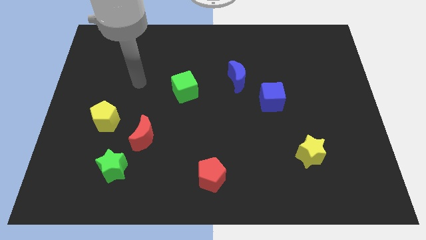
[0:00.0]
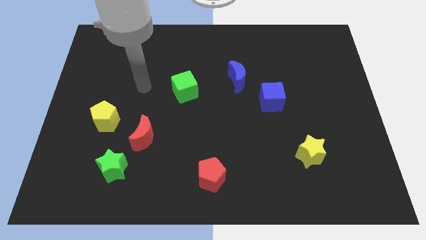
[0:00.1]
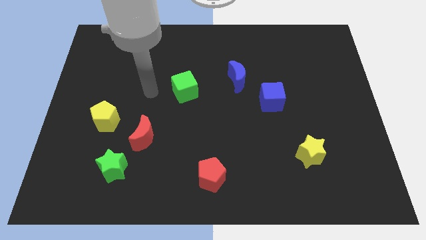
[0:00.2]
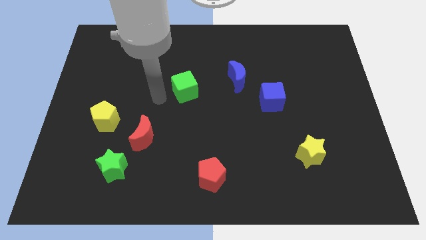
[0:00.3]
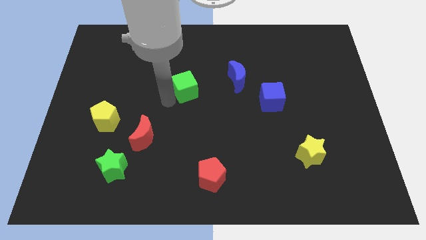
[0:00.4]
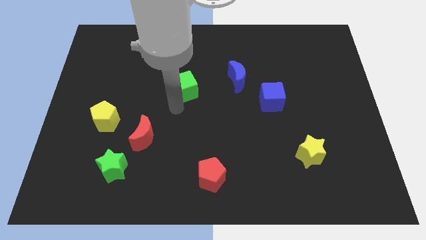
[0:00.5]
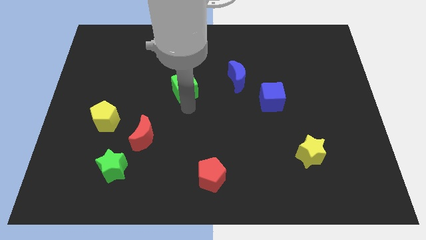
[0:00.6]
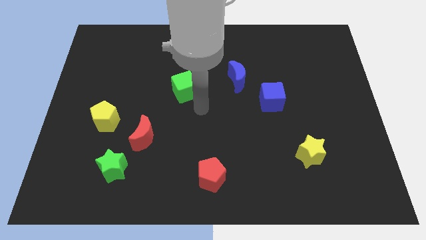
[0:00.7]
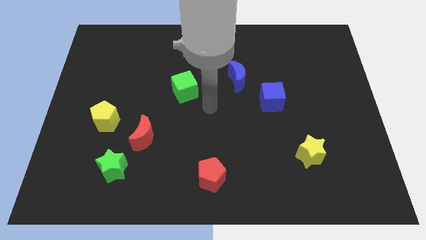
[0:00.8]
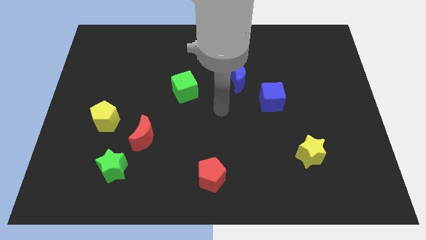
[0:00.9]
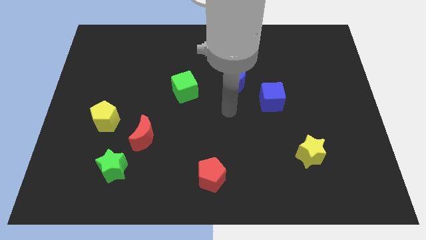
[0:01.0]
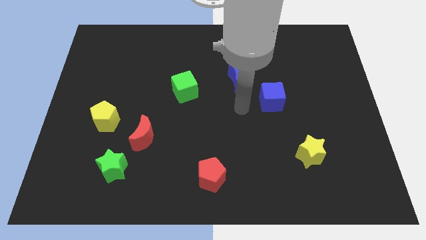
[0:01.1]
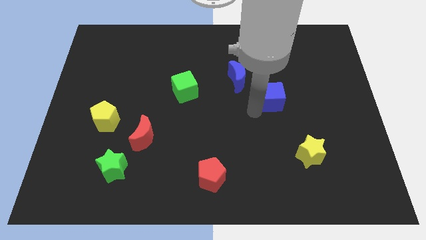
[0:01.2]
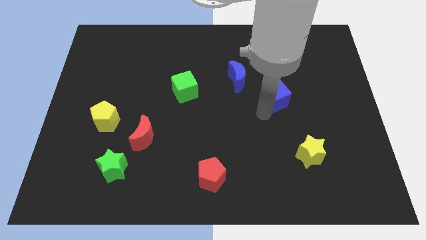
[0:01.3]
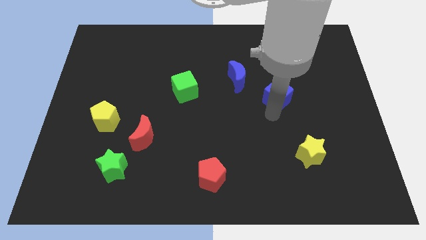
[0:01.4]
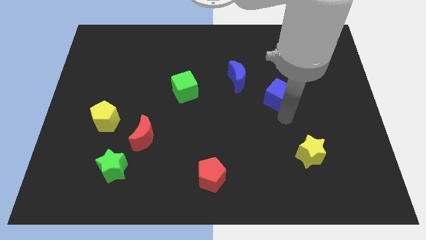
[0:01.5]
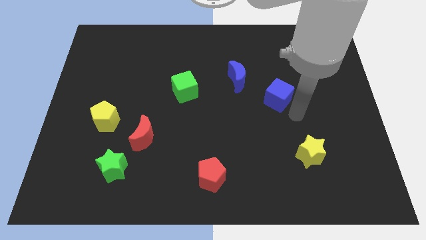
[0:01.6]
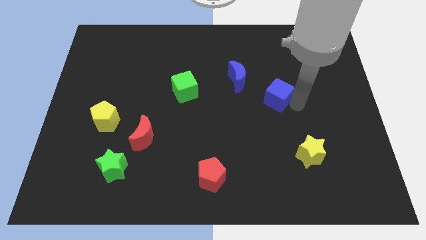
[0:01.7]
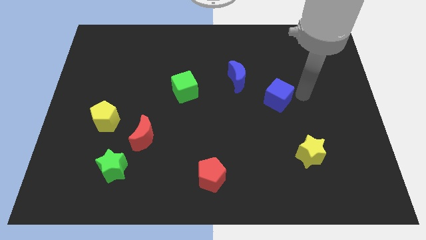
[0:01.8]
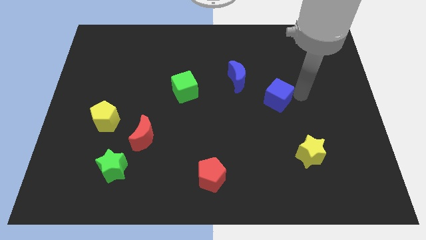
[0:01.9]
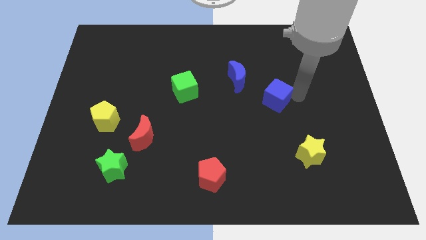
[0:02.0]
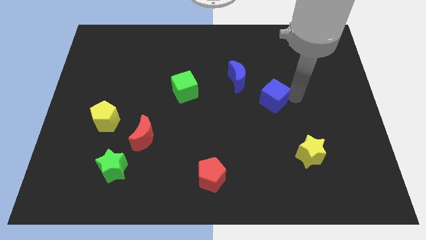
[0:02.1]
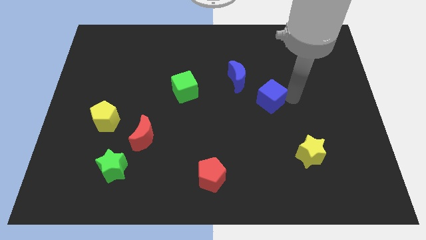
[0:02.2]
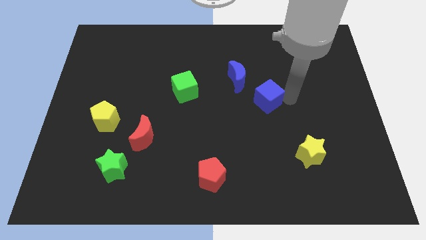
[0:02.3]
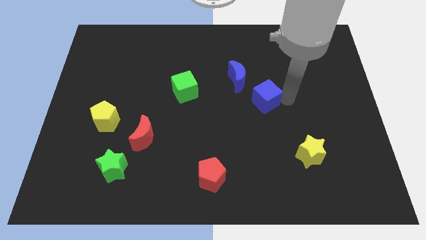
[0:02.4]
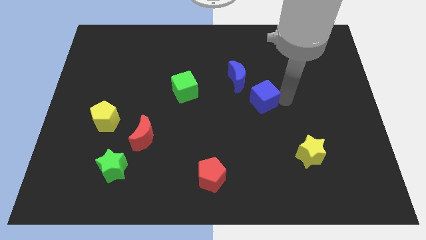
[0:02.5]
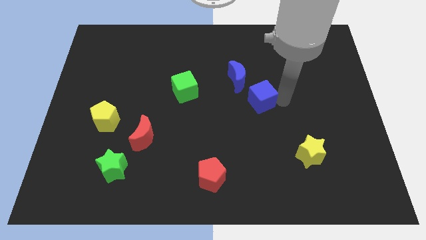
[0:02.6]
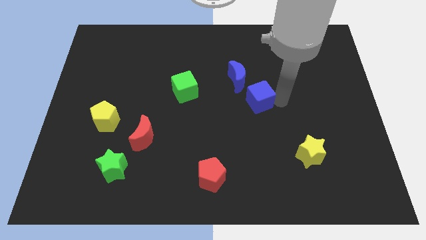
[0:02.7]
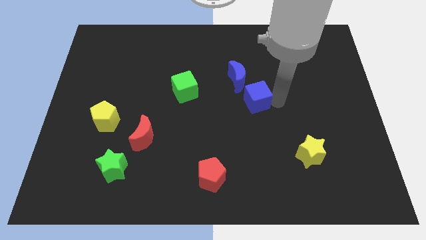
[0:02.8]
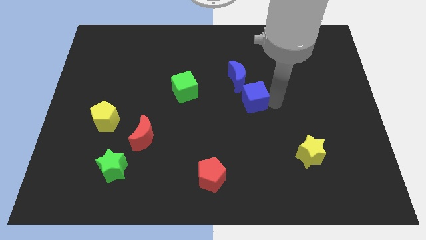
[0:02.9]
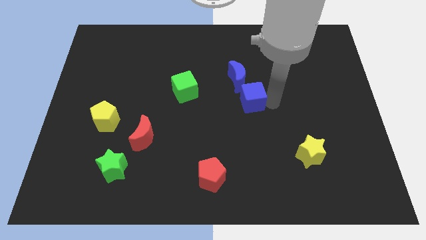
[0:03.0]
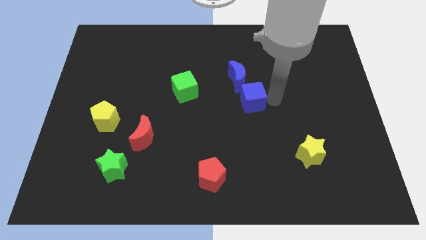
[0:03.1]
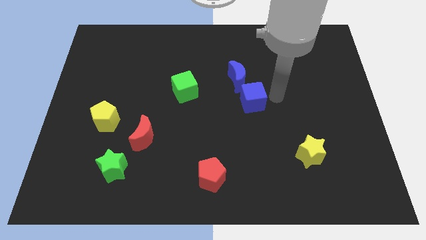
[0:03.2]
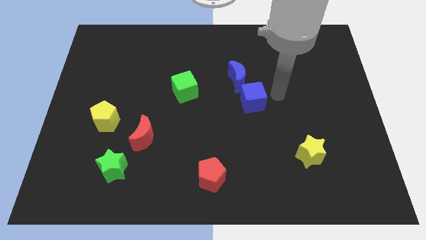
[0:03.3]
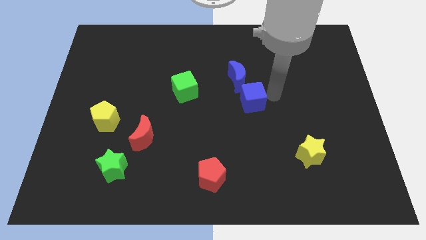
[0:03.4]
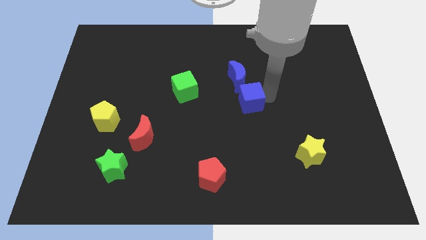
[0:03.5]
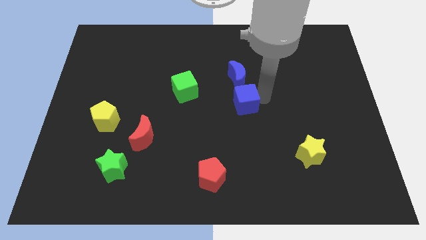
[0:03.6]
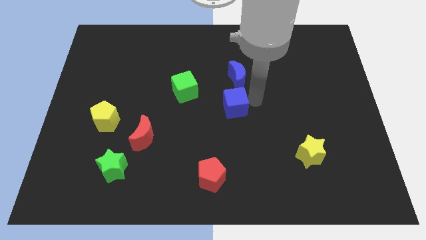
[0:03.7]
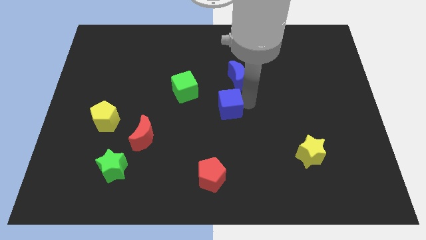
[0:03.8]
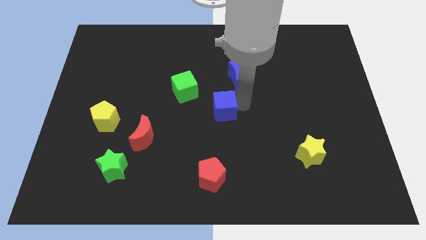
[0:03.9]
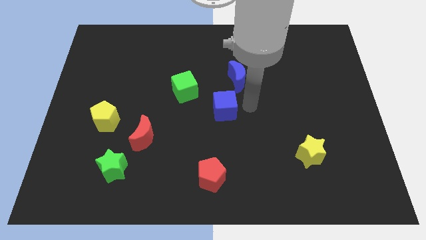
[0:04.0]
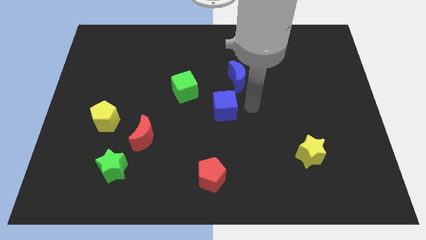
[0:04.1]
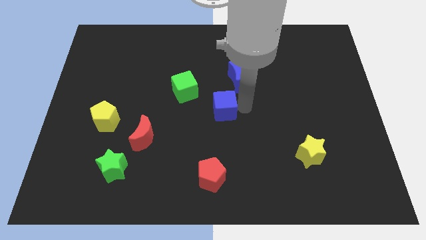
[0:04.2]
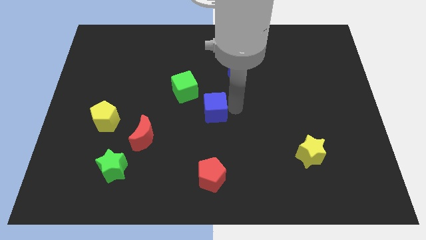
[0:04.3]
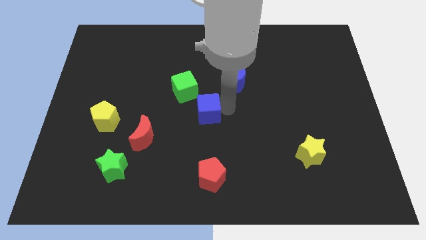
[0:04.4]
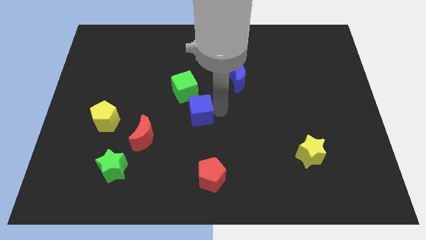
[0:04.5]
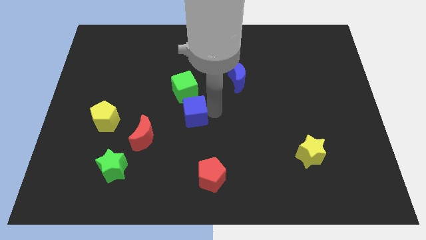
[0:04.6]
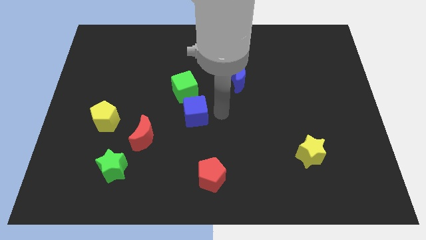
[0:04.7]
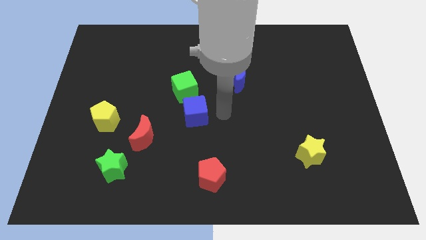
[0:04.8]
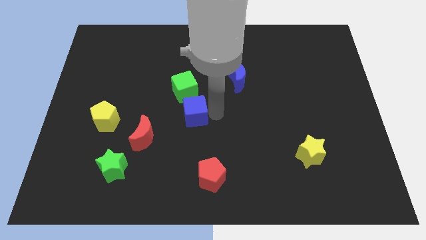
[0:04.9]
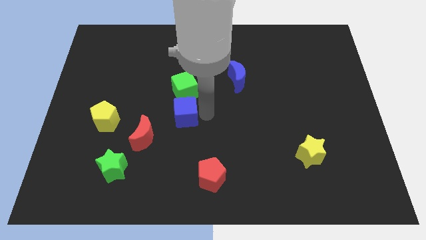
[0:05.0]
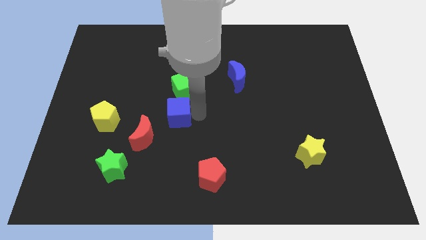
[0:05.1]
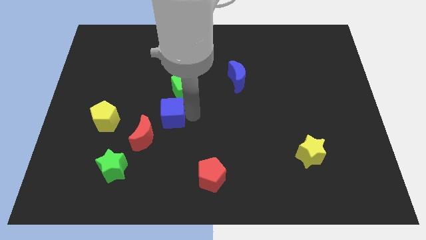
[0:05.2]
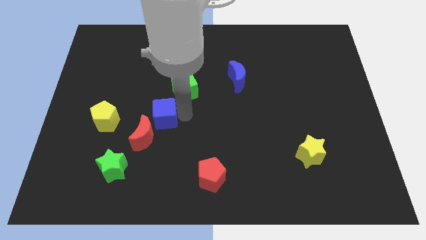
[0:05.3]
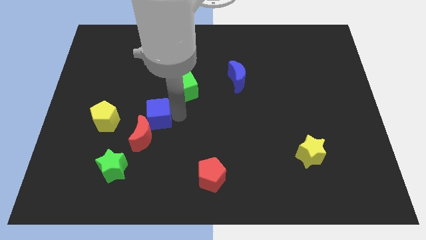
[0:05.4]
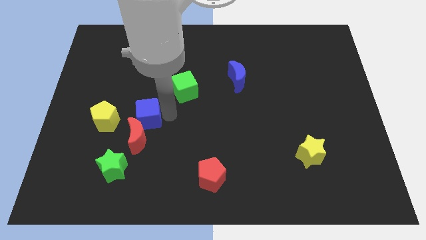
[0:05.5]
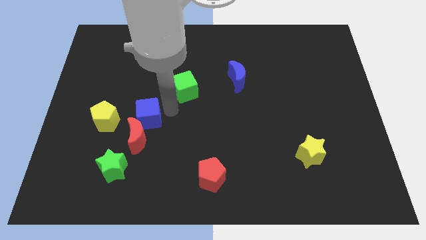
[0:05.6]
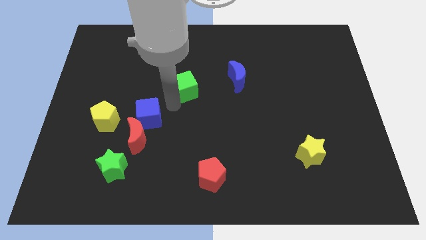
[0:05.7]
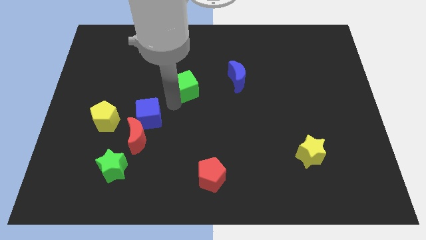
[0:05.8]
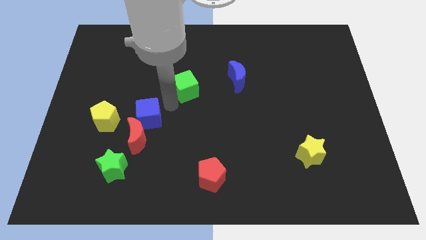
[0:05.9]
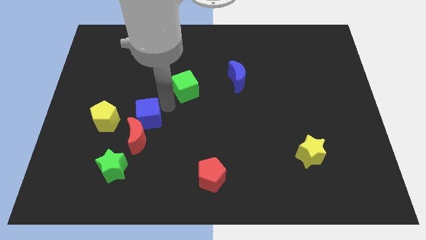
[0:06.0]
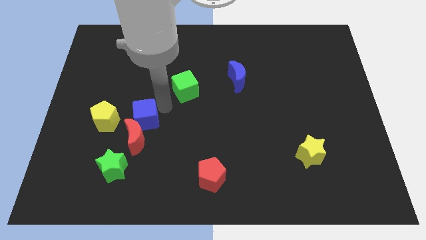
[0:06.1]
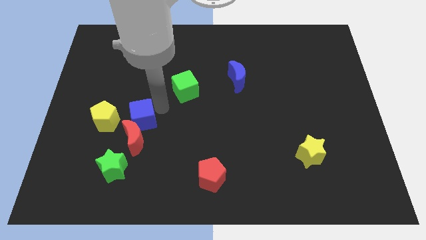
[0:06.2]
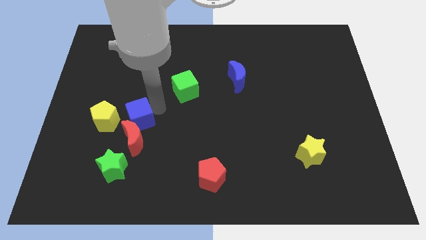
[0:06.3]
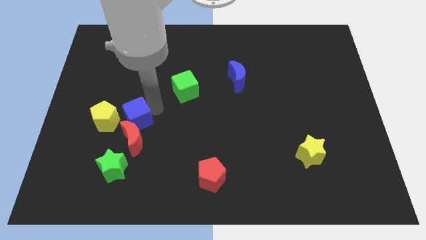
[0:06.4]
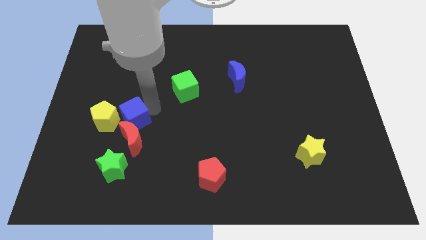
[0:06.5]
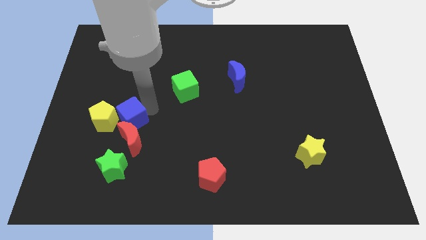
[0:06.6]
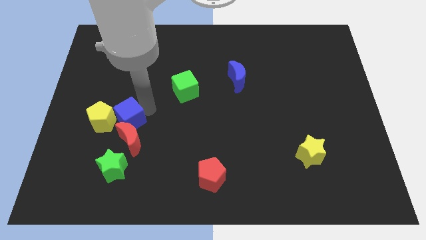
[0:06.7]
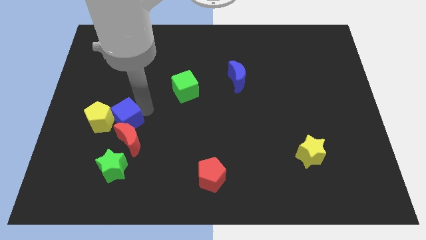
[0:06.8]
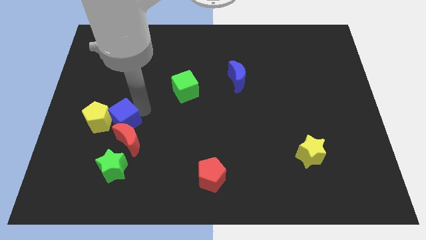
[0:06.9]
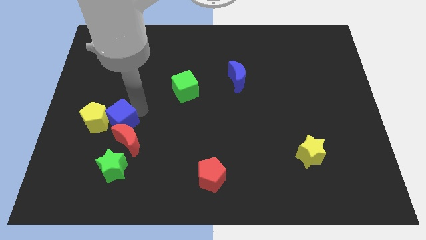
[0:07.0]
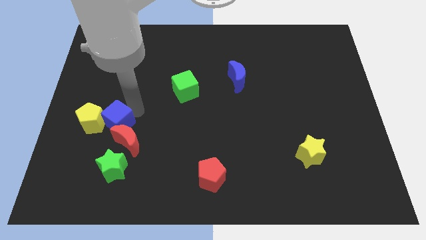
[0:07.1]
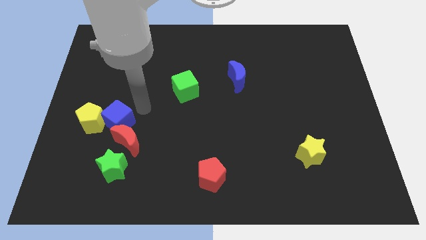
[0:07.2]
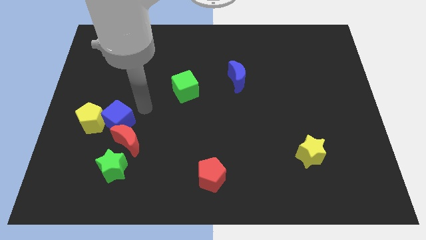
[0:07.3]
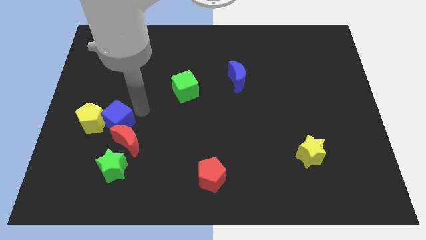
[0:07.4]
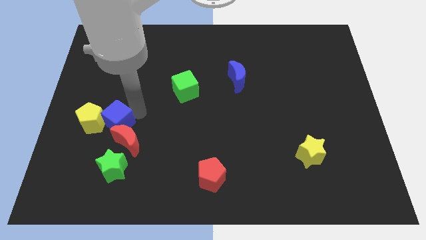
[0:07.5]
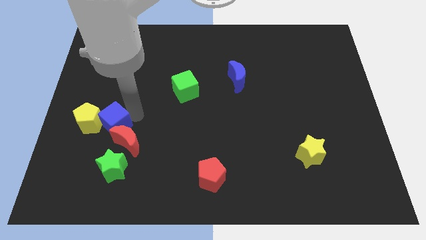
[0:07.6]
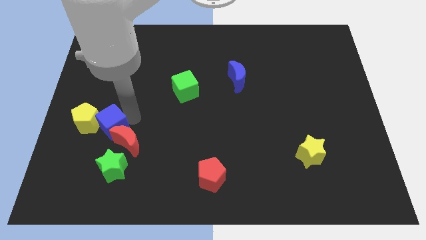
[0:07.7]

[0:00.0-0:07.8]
push the blue cube left of the red moon
